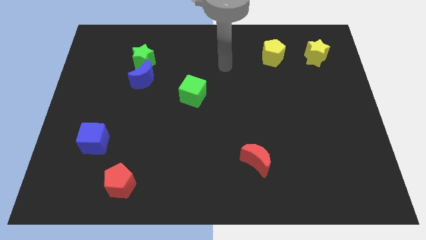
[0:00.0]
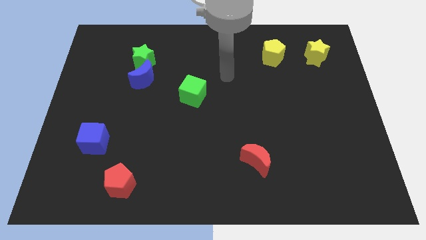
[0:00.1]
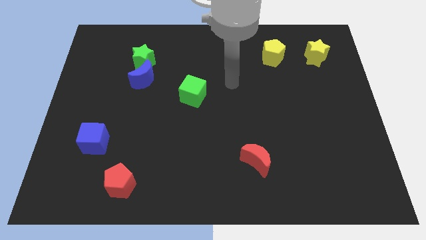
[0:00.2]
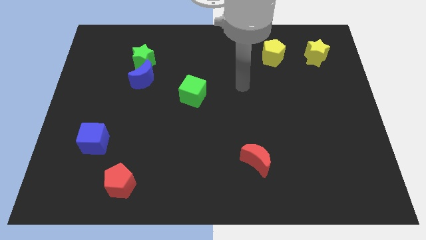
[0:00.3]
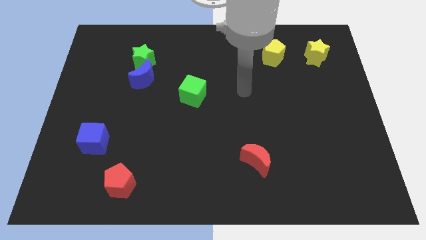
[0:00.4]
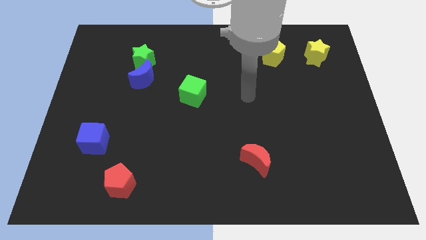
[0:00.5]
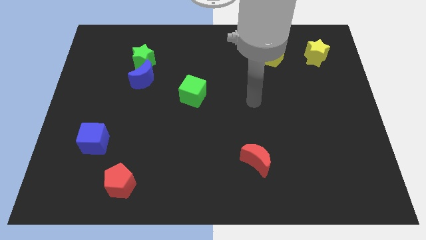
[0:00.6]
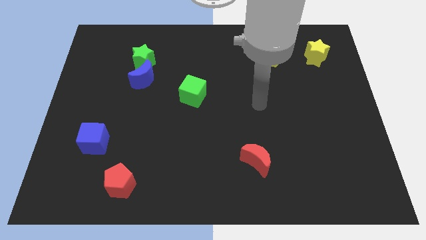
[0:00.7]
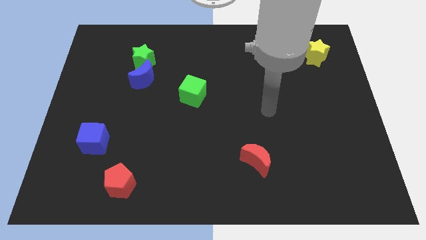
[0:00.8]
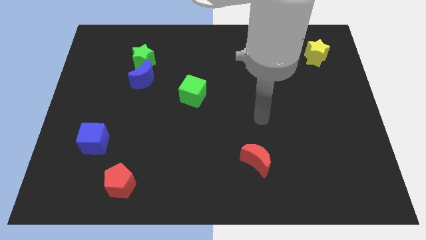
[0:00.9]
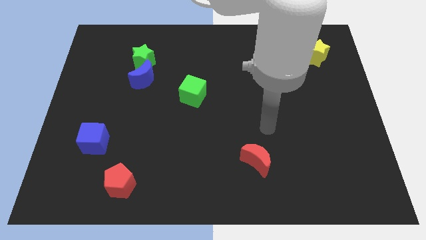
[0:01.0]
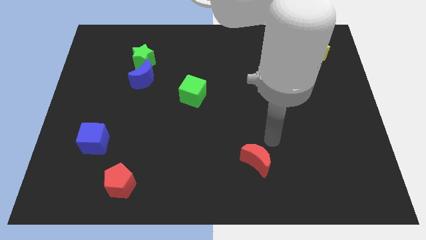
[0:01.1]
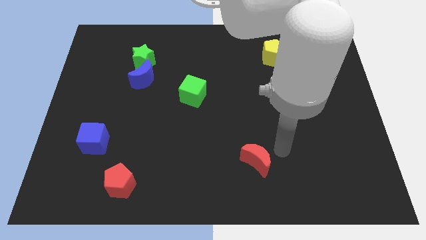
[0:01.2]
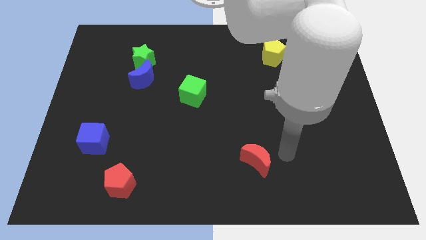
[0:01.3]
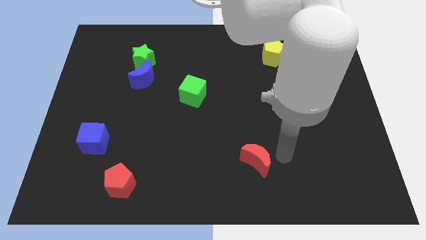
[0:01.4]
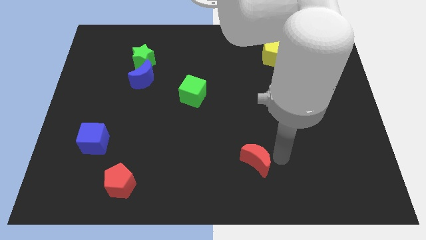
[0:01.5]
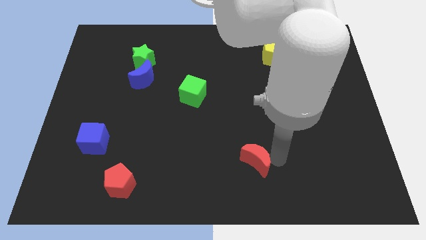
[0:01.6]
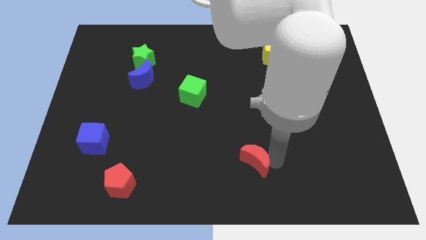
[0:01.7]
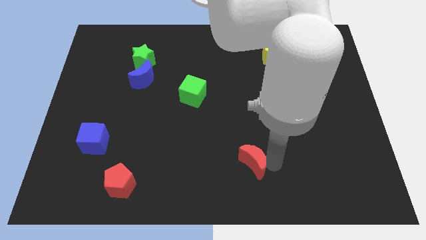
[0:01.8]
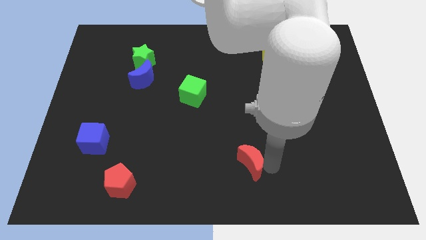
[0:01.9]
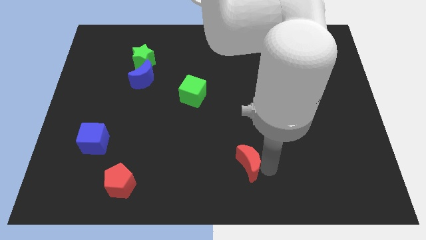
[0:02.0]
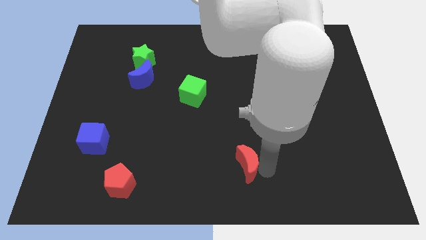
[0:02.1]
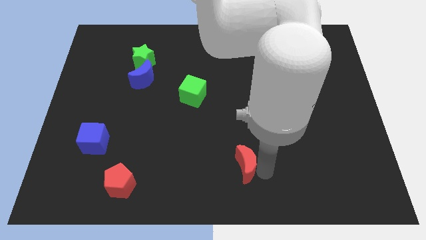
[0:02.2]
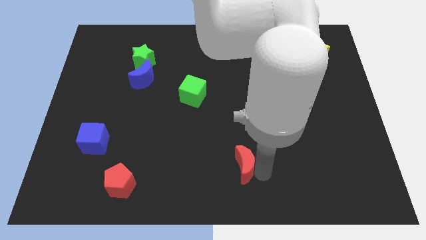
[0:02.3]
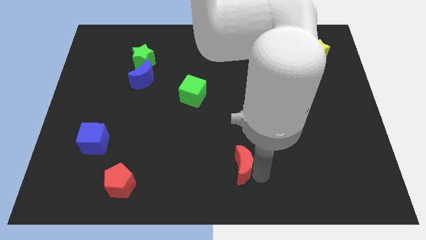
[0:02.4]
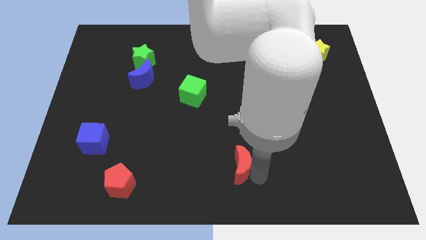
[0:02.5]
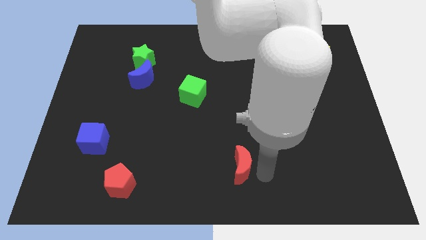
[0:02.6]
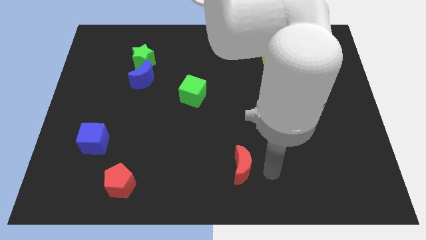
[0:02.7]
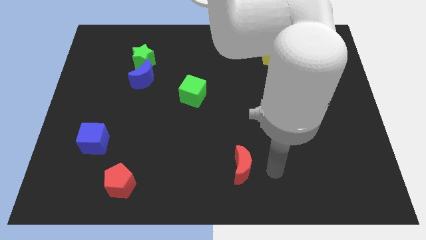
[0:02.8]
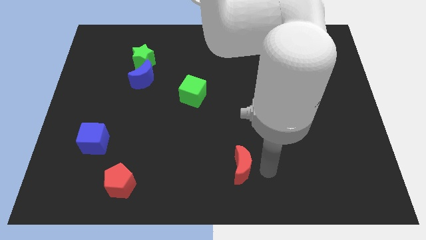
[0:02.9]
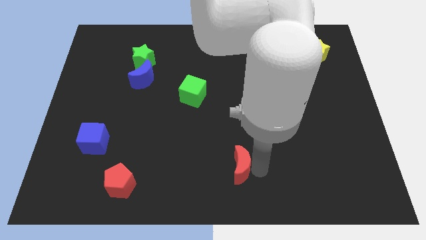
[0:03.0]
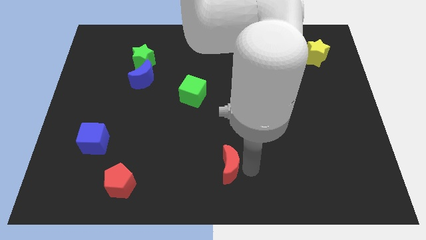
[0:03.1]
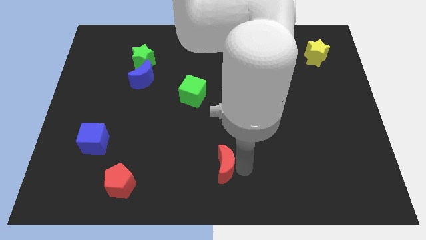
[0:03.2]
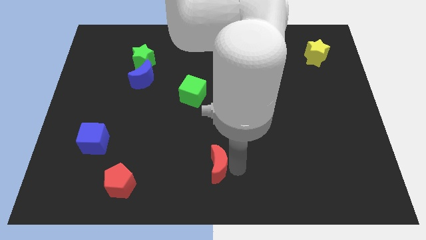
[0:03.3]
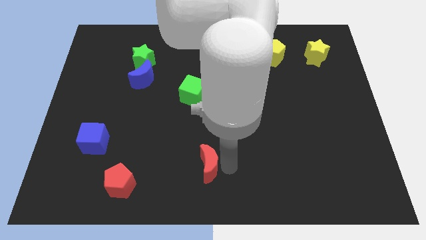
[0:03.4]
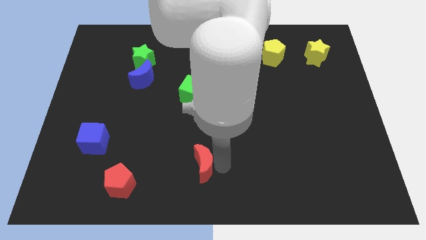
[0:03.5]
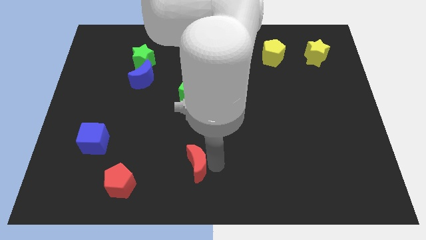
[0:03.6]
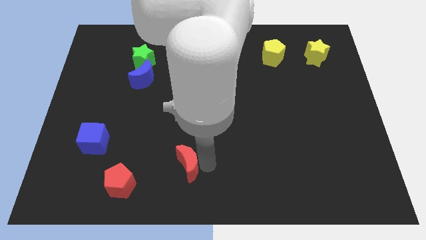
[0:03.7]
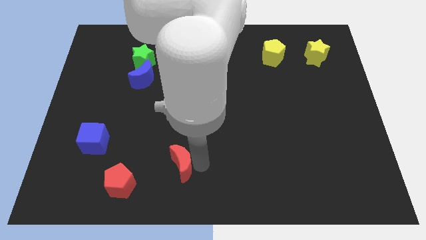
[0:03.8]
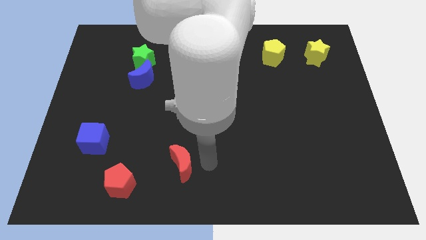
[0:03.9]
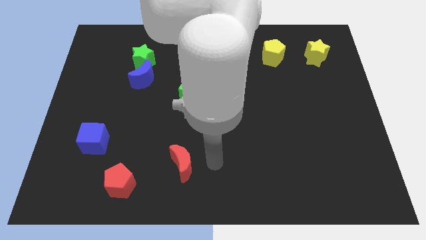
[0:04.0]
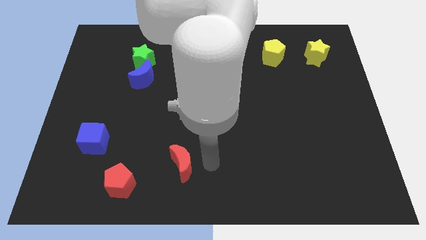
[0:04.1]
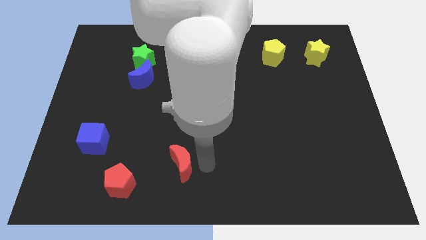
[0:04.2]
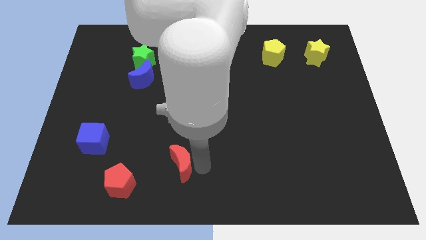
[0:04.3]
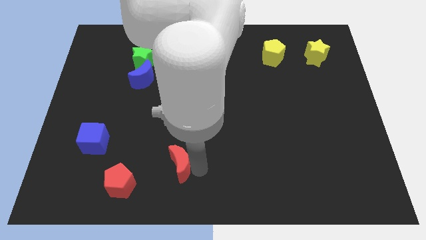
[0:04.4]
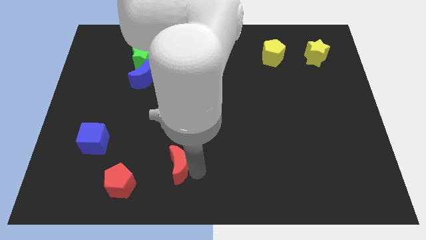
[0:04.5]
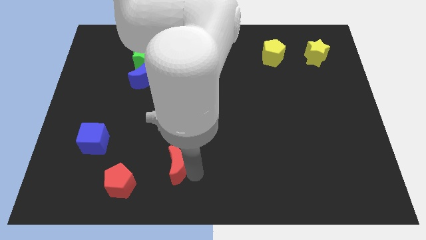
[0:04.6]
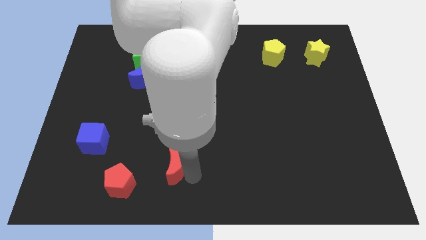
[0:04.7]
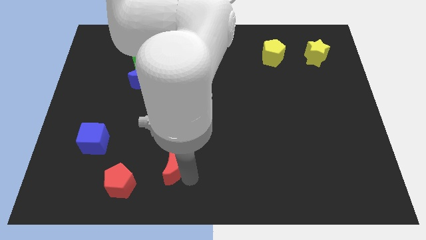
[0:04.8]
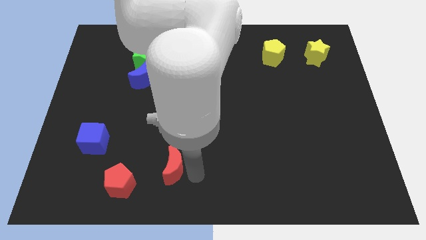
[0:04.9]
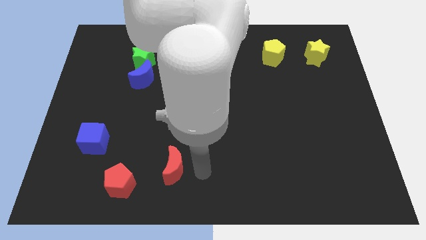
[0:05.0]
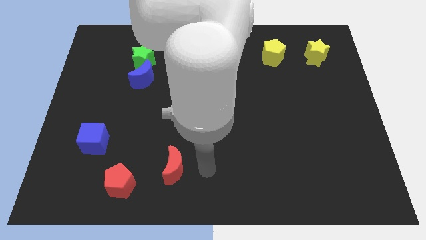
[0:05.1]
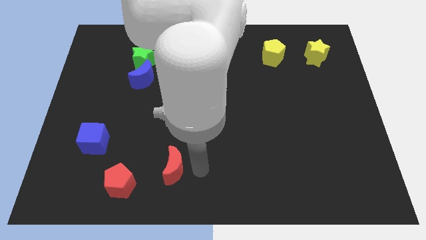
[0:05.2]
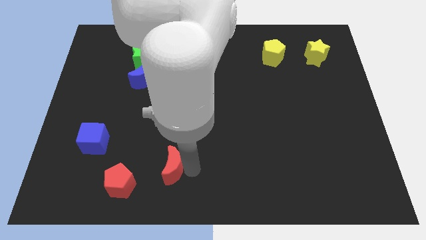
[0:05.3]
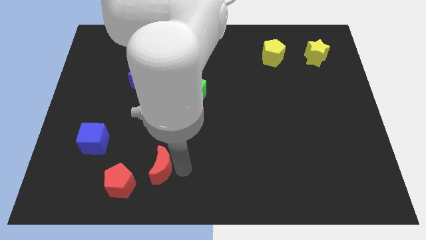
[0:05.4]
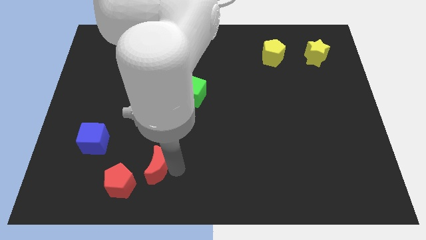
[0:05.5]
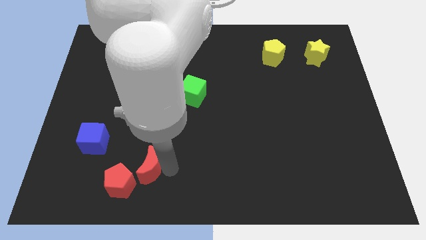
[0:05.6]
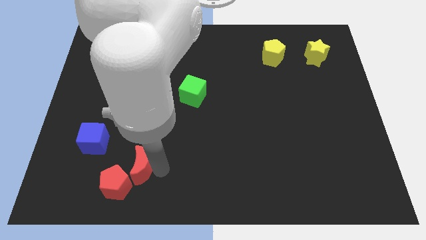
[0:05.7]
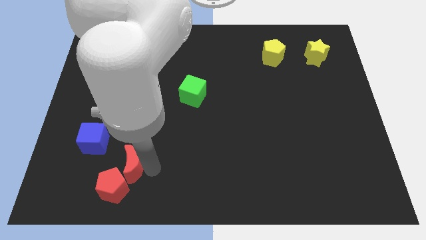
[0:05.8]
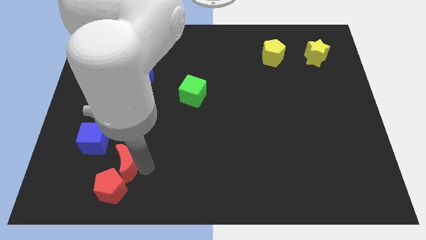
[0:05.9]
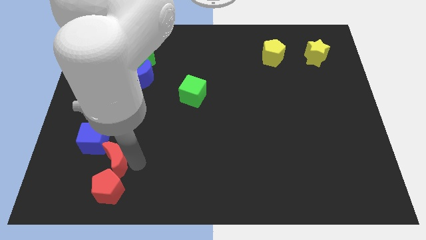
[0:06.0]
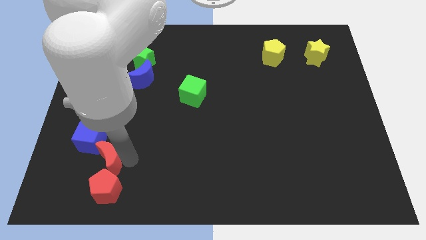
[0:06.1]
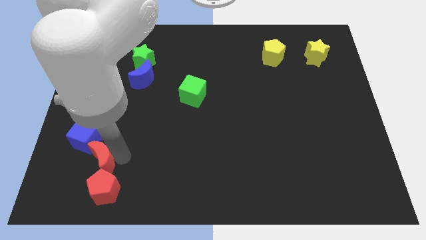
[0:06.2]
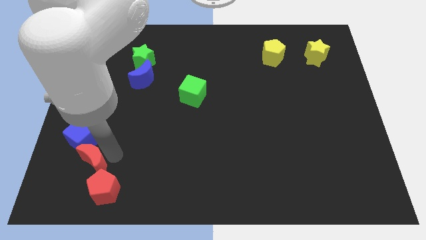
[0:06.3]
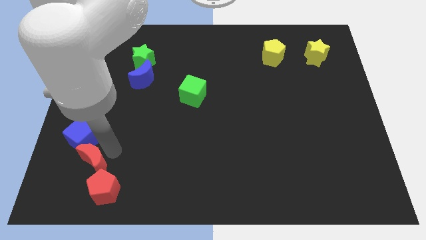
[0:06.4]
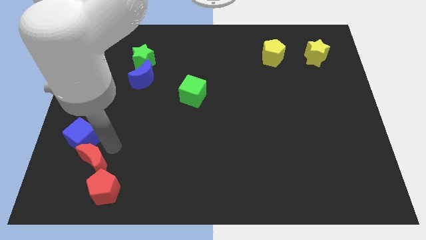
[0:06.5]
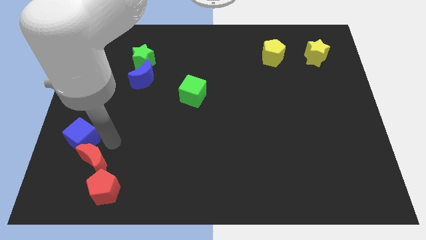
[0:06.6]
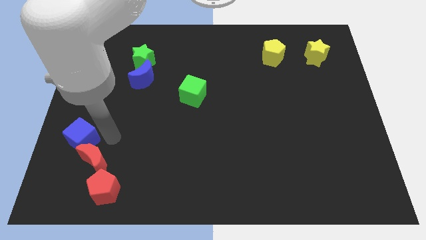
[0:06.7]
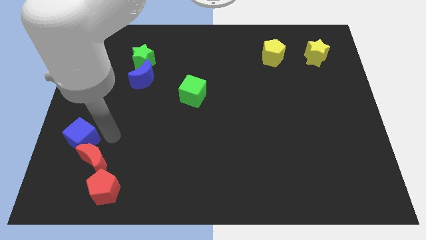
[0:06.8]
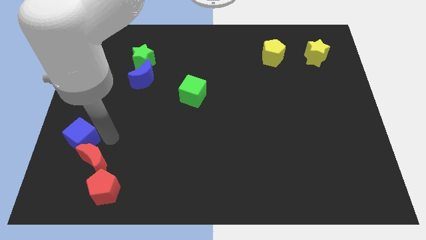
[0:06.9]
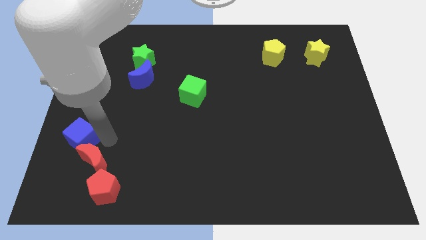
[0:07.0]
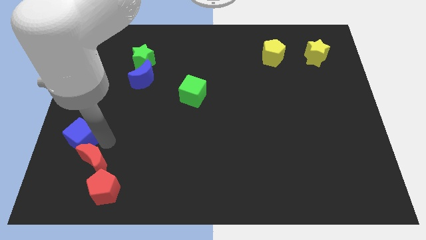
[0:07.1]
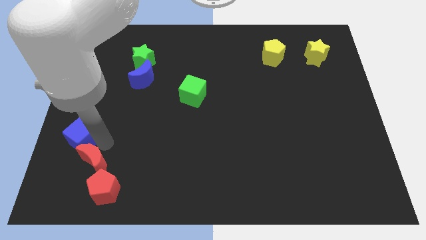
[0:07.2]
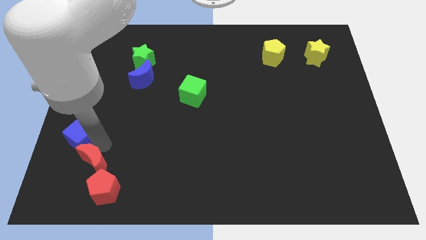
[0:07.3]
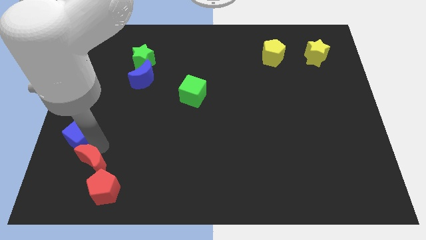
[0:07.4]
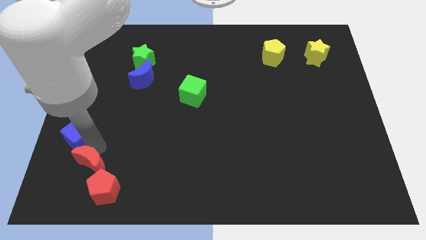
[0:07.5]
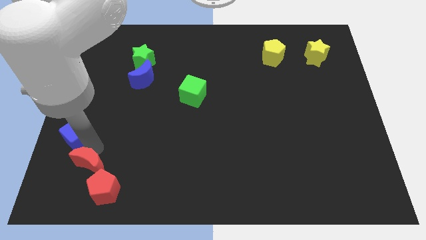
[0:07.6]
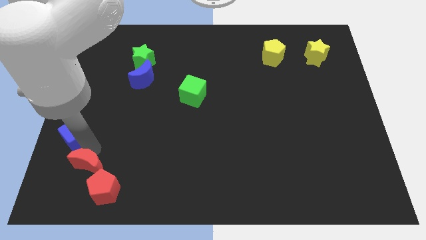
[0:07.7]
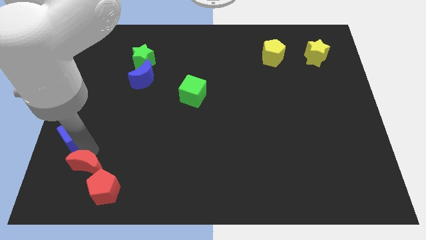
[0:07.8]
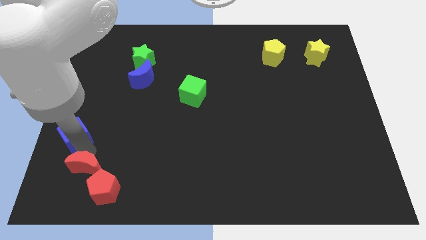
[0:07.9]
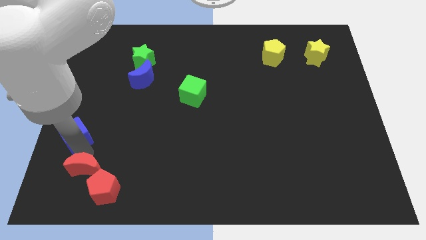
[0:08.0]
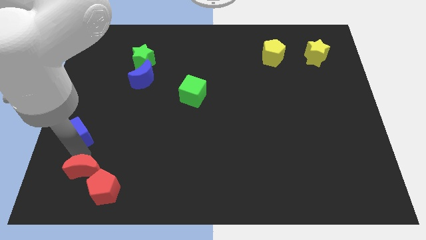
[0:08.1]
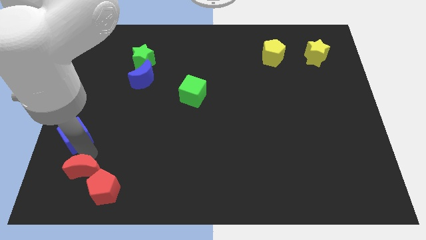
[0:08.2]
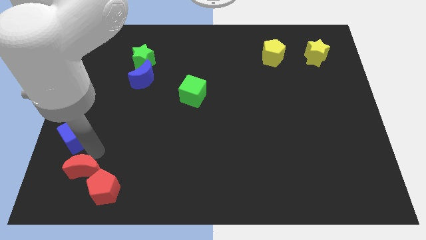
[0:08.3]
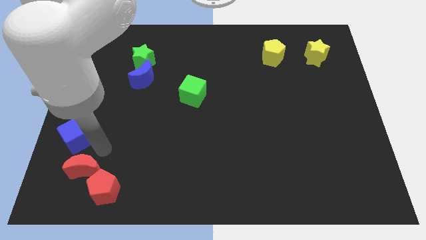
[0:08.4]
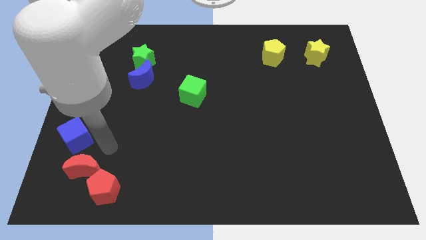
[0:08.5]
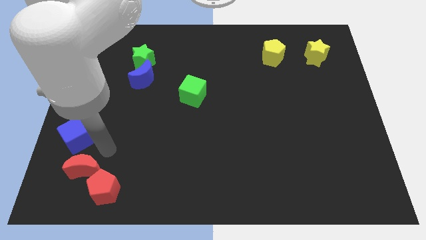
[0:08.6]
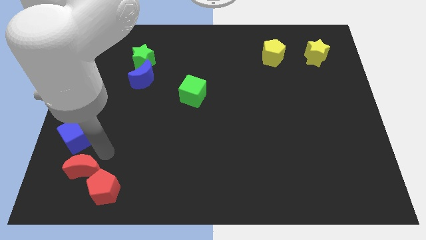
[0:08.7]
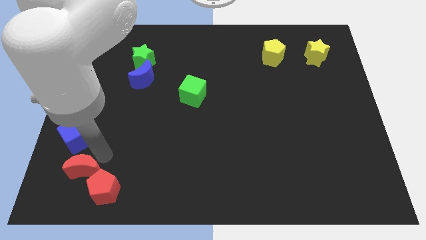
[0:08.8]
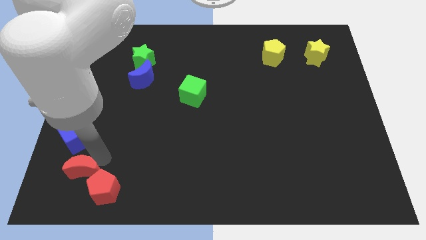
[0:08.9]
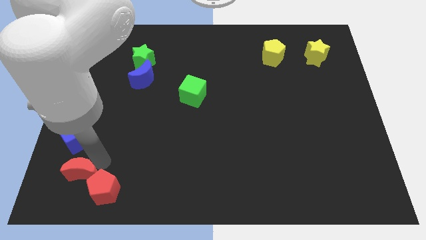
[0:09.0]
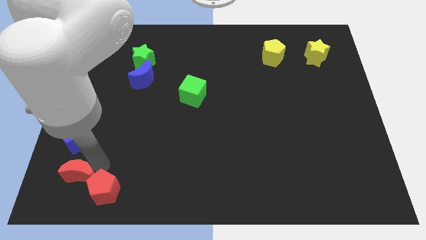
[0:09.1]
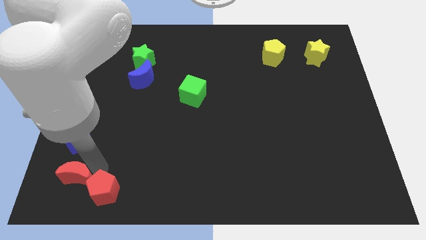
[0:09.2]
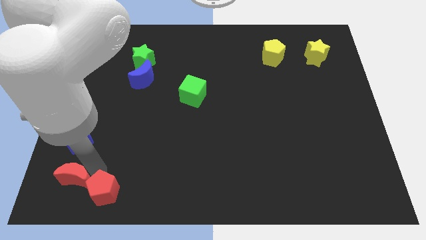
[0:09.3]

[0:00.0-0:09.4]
put the red moon to the bottom left
